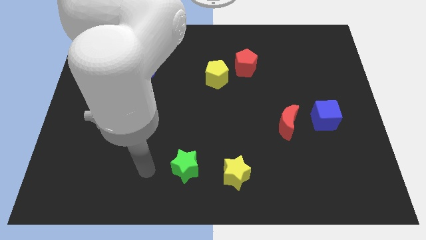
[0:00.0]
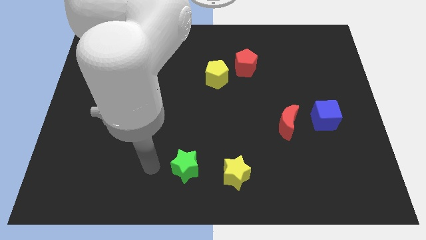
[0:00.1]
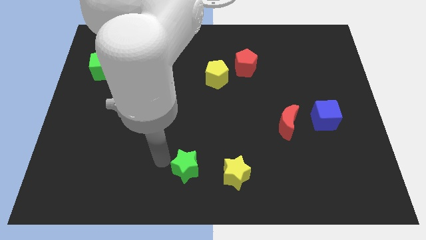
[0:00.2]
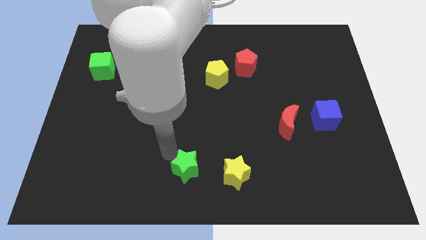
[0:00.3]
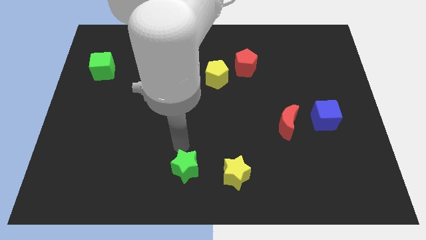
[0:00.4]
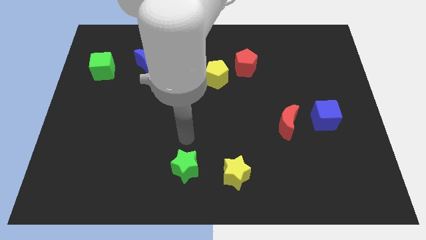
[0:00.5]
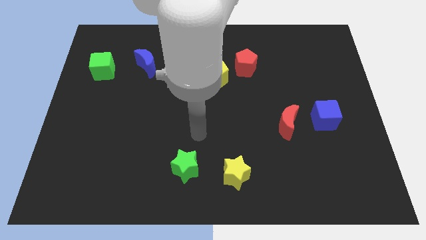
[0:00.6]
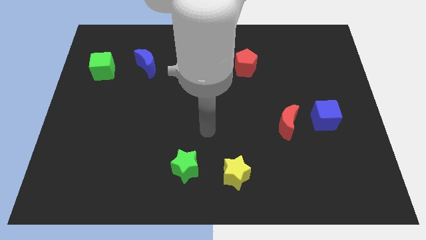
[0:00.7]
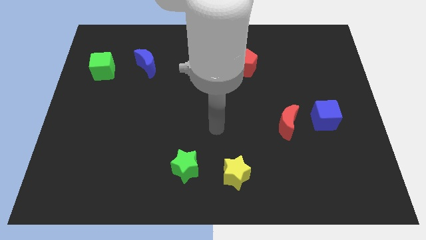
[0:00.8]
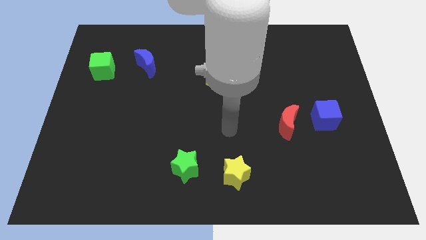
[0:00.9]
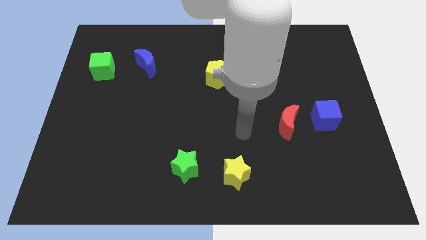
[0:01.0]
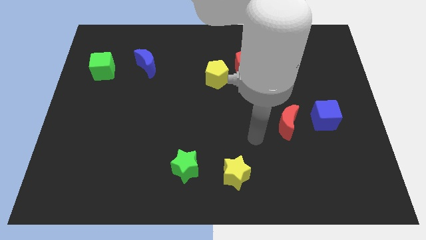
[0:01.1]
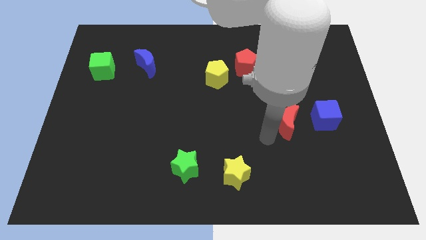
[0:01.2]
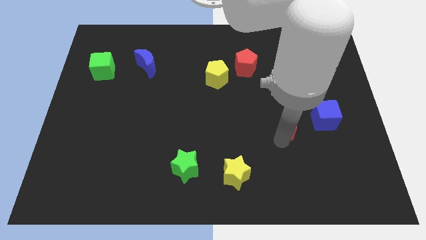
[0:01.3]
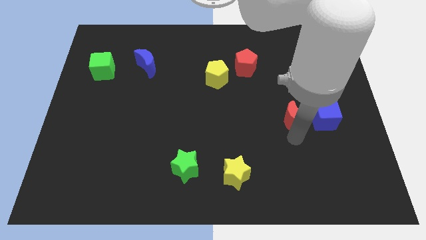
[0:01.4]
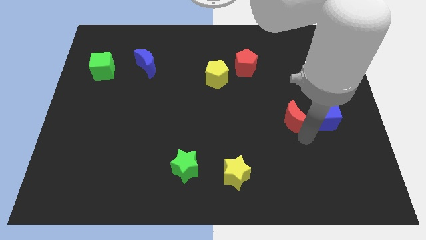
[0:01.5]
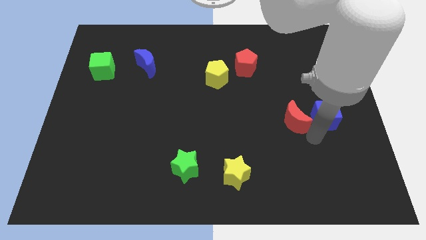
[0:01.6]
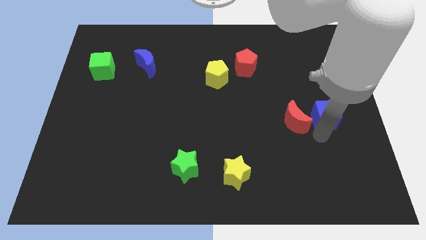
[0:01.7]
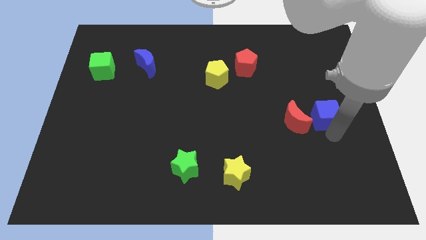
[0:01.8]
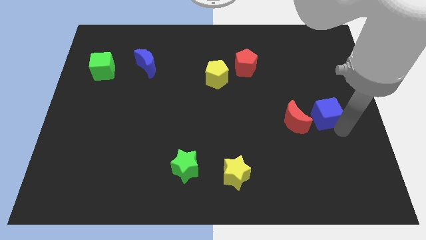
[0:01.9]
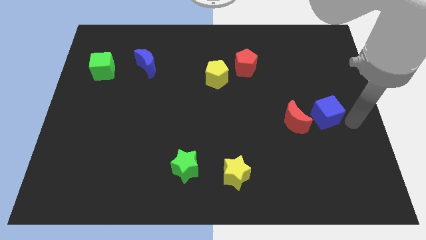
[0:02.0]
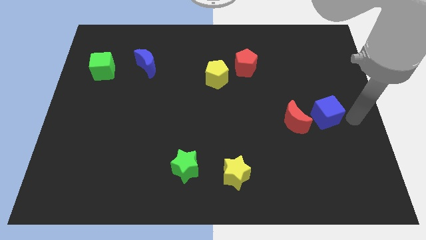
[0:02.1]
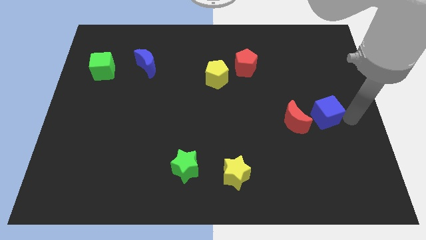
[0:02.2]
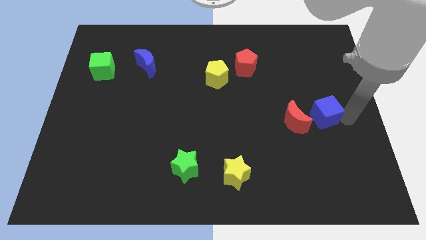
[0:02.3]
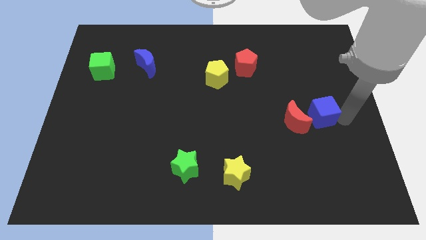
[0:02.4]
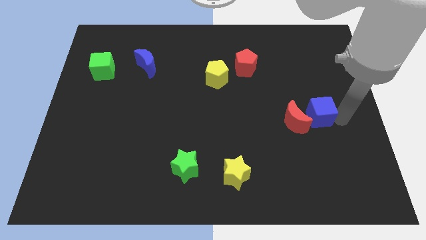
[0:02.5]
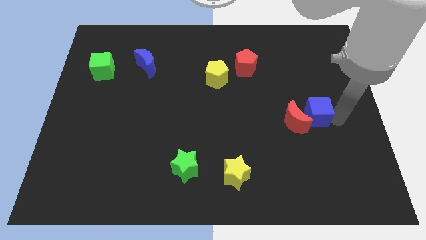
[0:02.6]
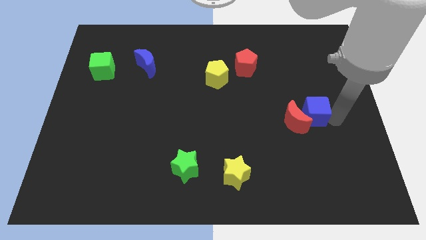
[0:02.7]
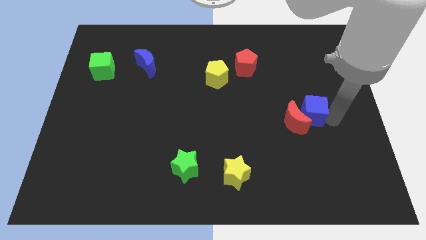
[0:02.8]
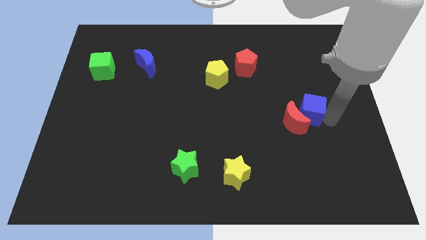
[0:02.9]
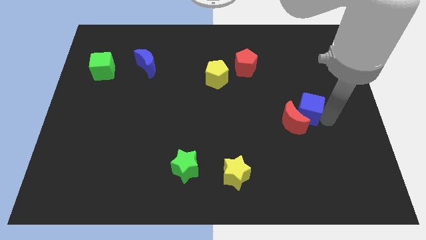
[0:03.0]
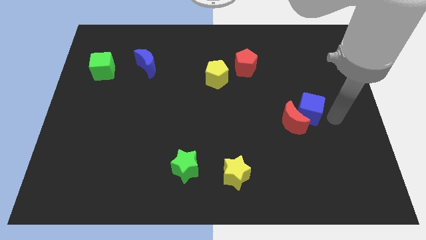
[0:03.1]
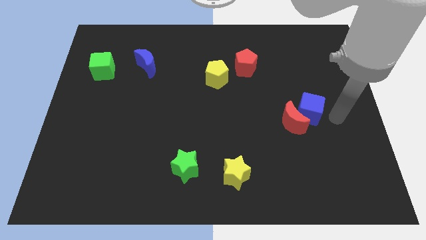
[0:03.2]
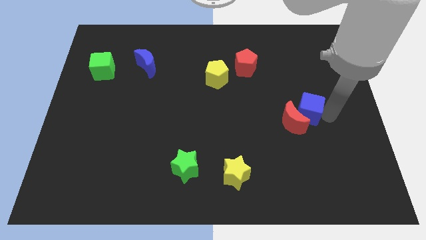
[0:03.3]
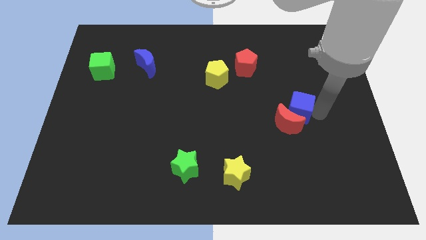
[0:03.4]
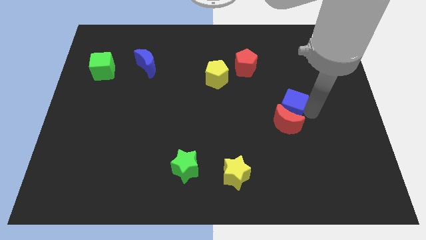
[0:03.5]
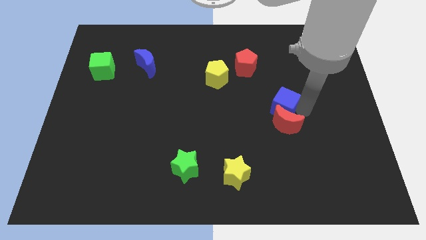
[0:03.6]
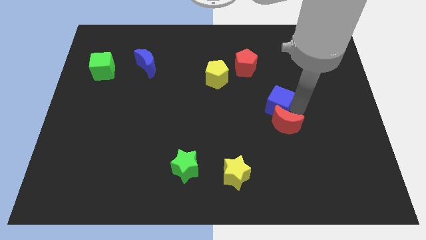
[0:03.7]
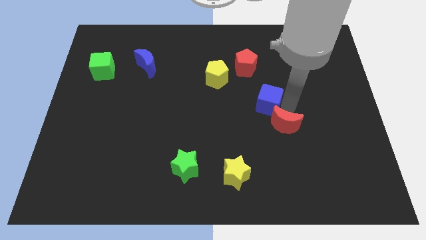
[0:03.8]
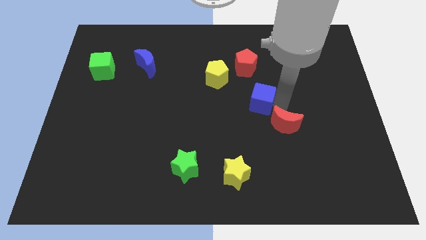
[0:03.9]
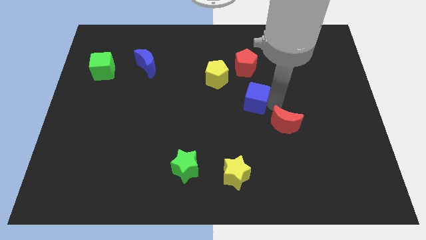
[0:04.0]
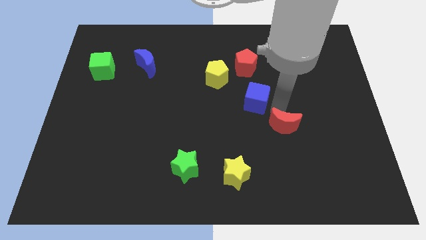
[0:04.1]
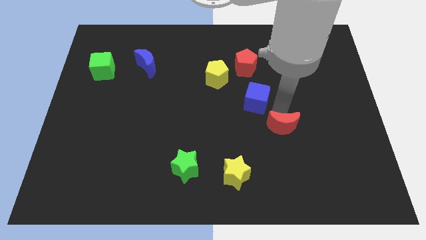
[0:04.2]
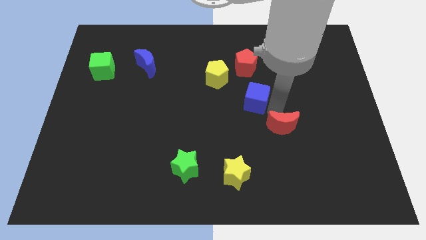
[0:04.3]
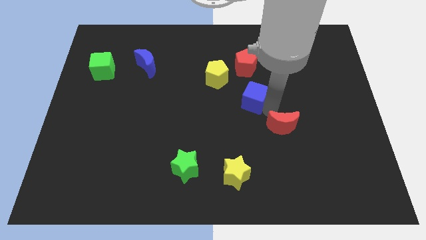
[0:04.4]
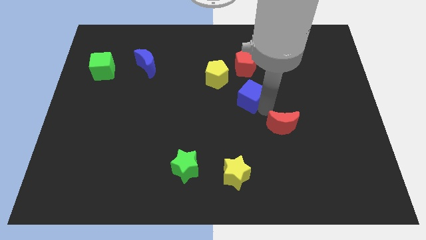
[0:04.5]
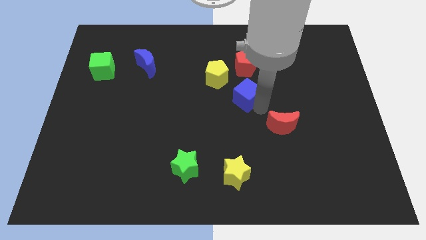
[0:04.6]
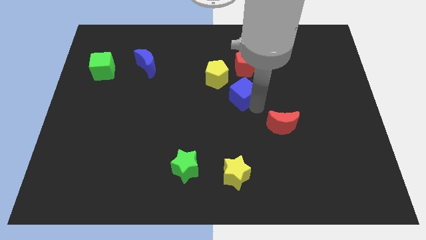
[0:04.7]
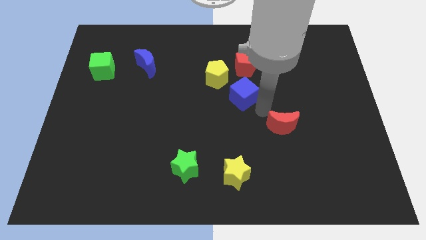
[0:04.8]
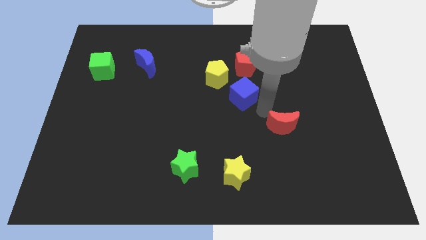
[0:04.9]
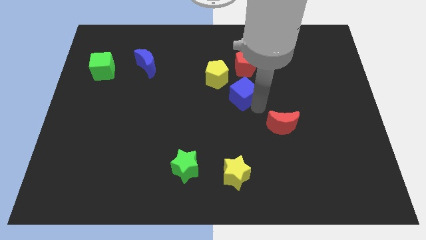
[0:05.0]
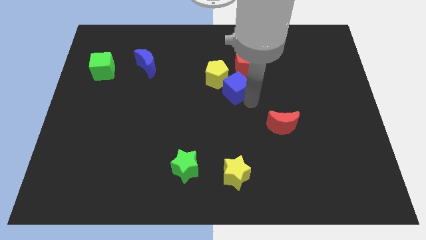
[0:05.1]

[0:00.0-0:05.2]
put the blue cube to the yellow pentagon

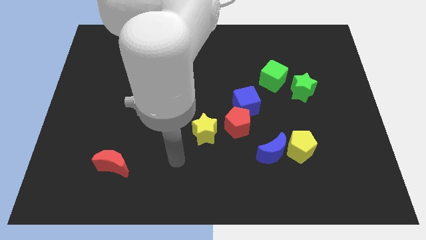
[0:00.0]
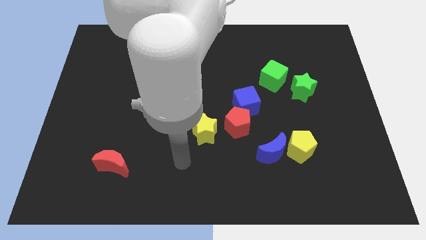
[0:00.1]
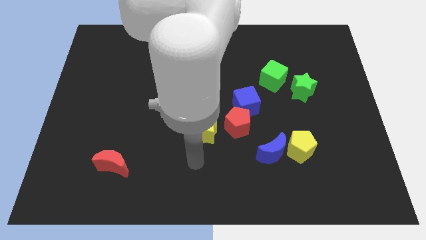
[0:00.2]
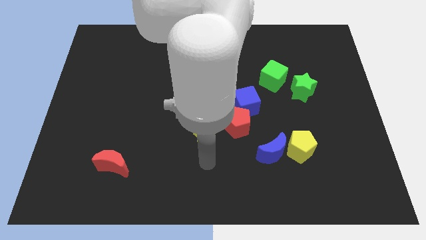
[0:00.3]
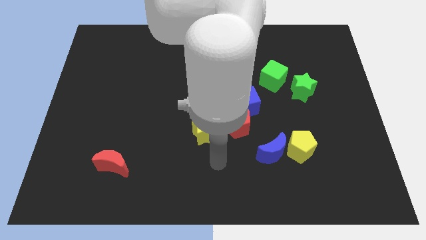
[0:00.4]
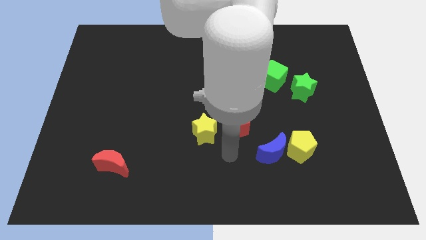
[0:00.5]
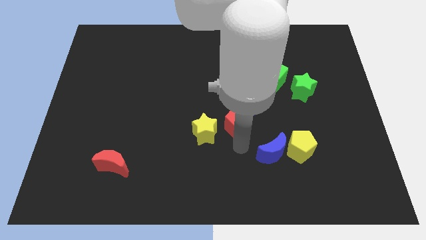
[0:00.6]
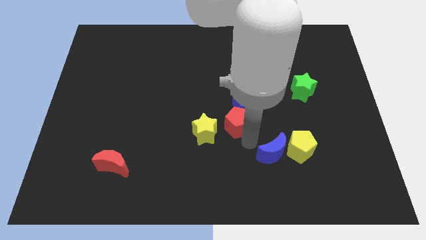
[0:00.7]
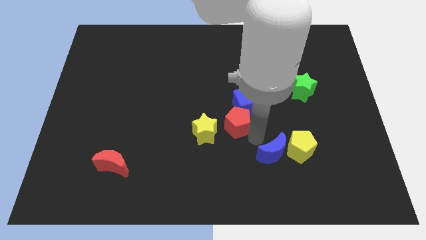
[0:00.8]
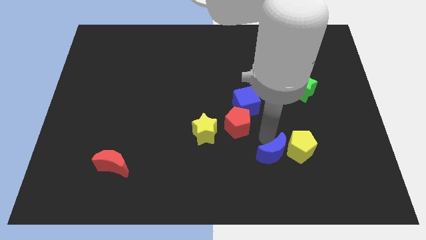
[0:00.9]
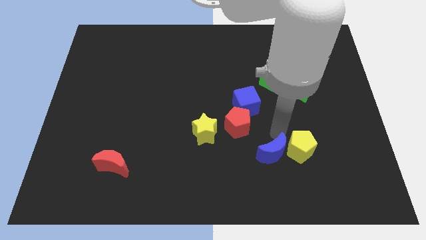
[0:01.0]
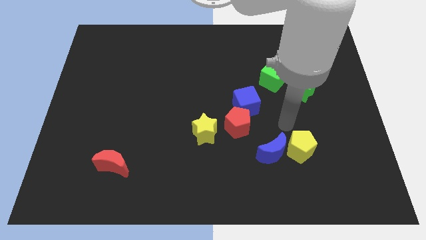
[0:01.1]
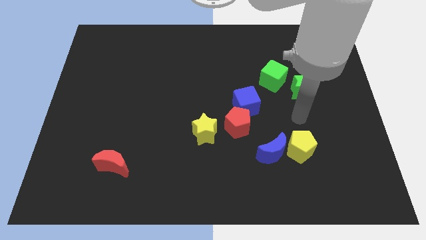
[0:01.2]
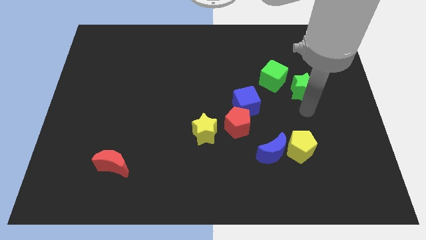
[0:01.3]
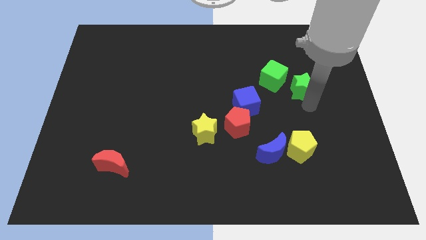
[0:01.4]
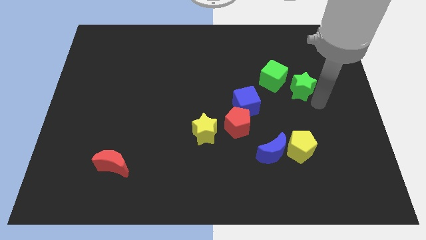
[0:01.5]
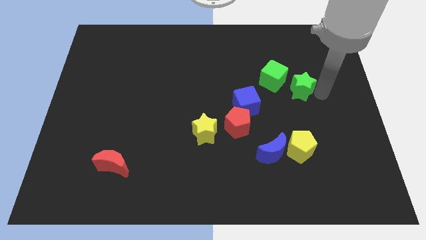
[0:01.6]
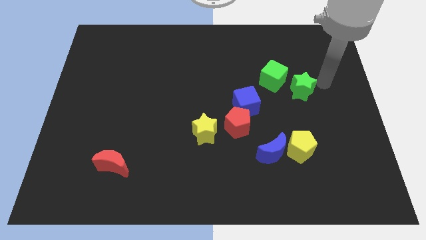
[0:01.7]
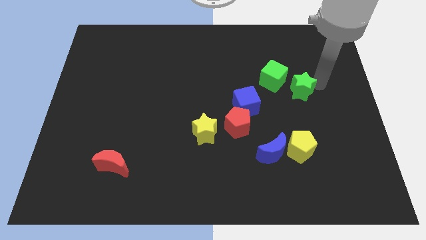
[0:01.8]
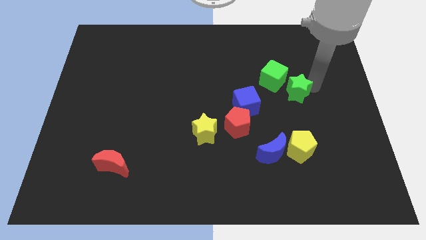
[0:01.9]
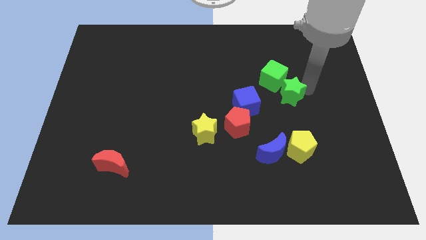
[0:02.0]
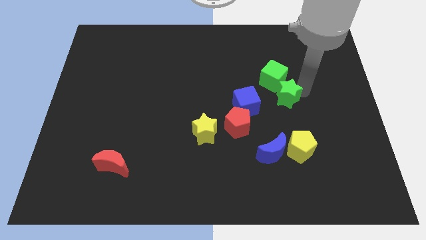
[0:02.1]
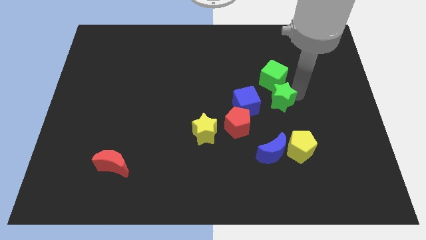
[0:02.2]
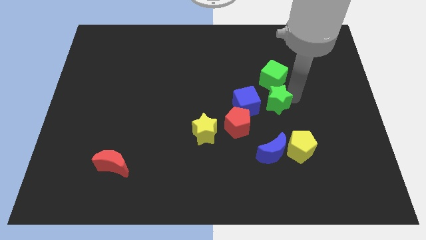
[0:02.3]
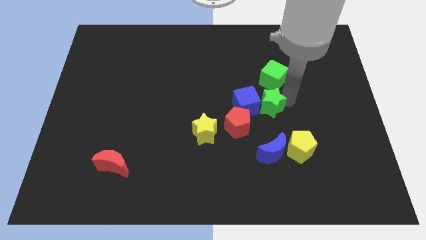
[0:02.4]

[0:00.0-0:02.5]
slide the green star to the blue cube

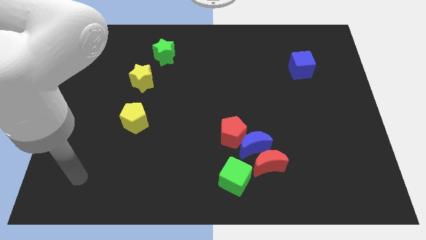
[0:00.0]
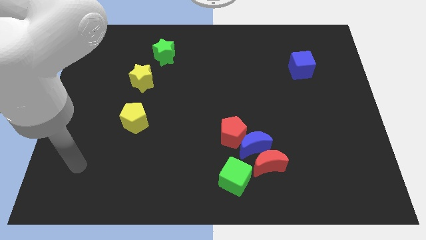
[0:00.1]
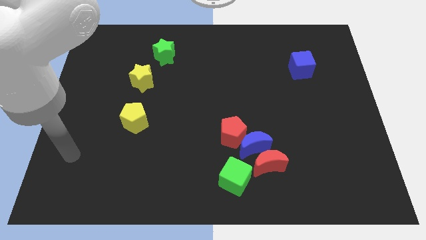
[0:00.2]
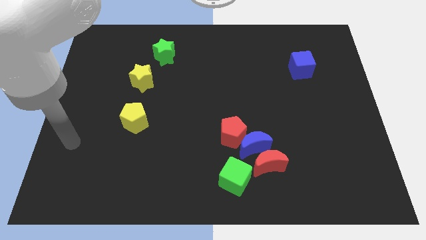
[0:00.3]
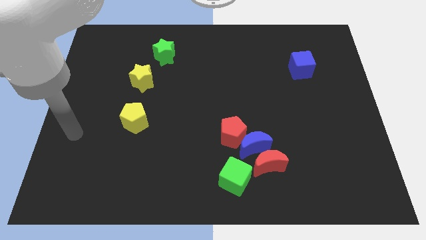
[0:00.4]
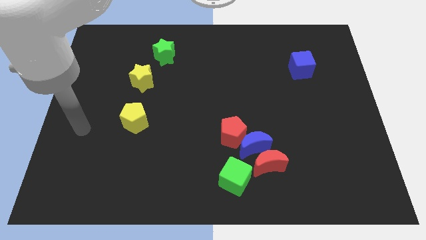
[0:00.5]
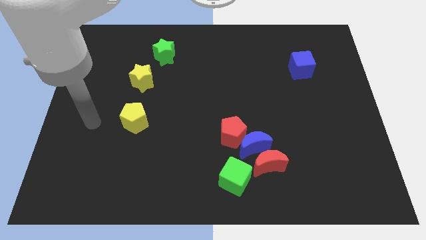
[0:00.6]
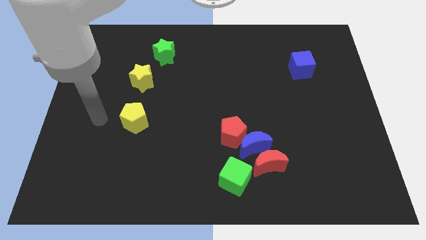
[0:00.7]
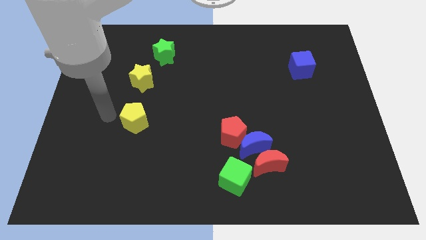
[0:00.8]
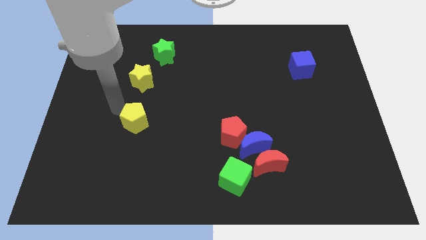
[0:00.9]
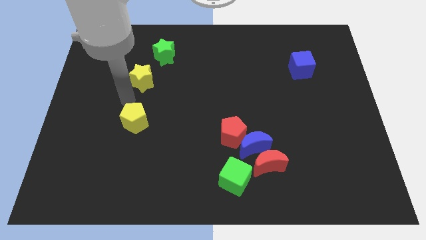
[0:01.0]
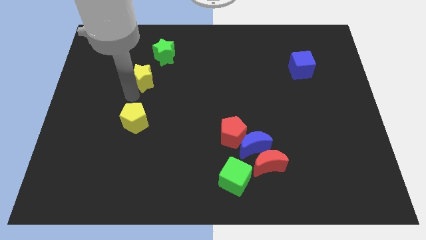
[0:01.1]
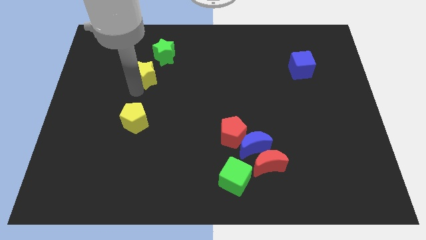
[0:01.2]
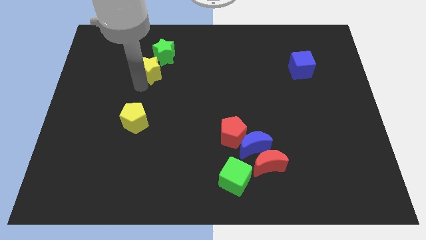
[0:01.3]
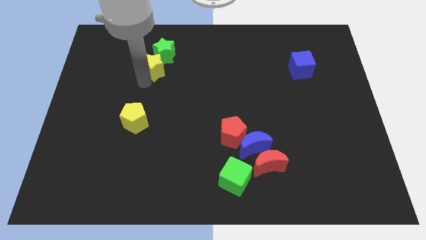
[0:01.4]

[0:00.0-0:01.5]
slide the yellow star next to the green star
